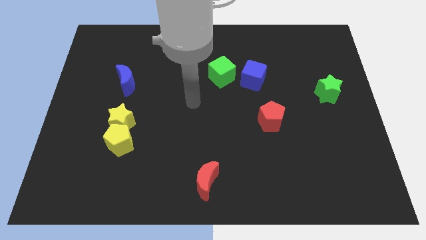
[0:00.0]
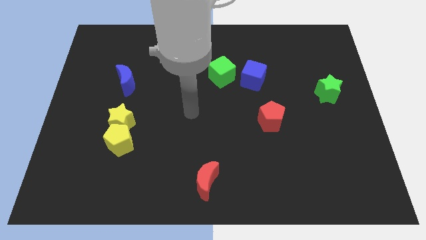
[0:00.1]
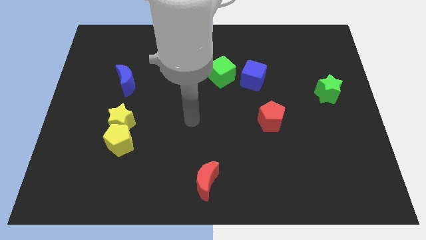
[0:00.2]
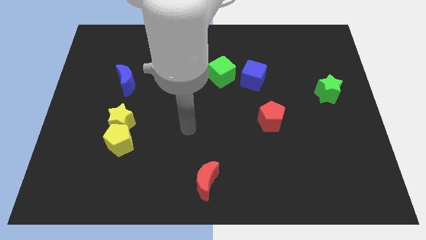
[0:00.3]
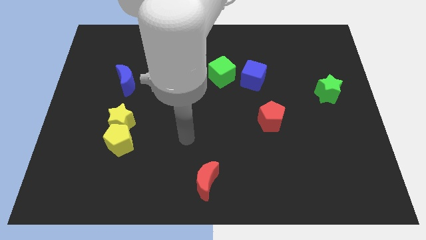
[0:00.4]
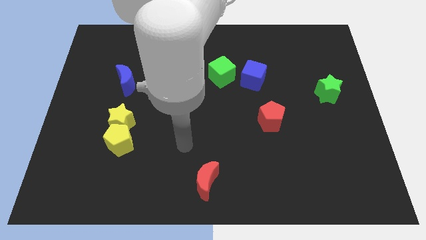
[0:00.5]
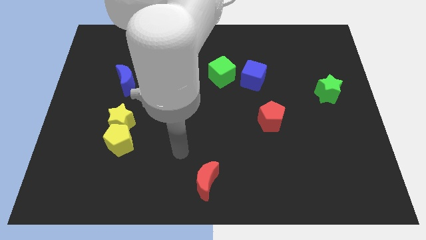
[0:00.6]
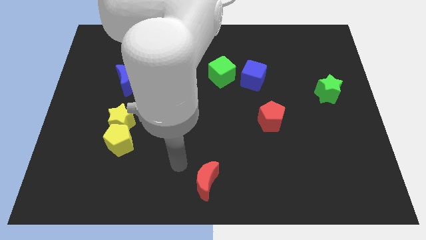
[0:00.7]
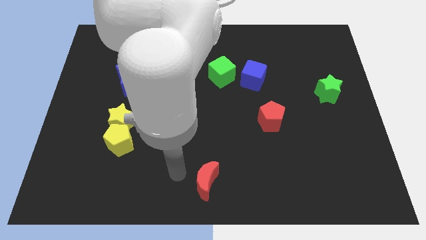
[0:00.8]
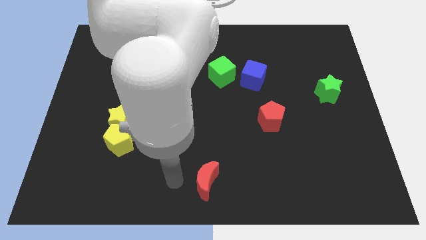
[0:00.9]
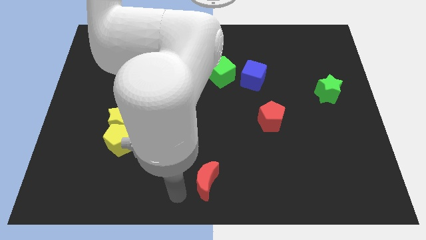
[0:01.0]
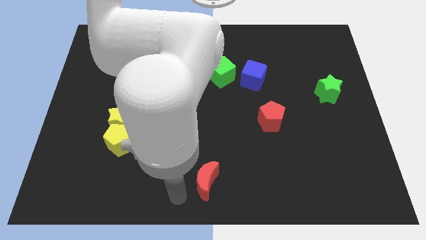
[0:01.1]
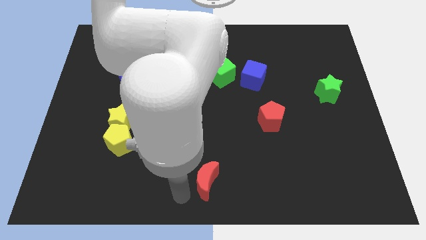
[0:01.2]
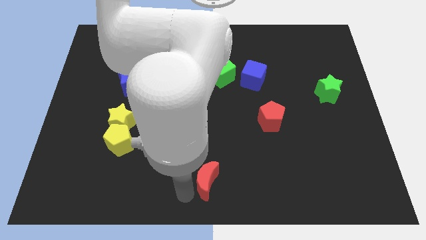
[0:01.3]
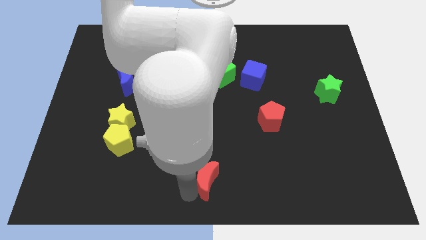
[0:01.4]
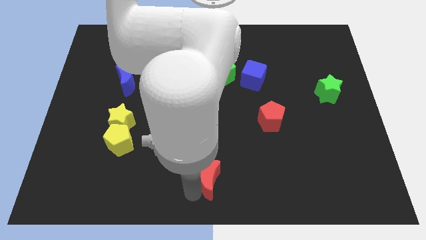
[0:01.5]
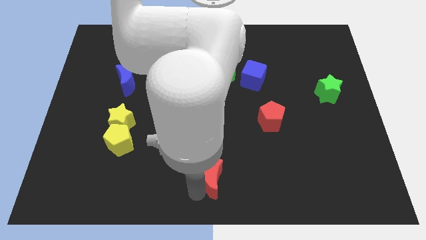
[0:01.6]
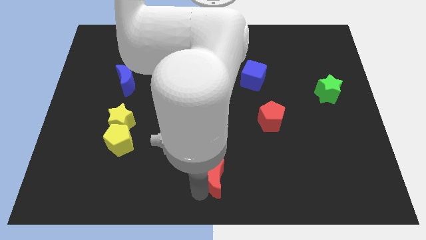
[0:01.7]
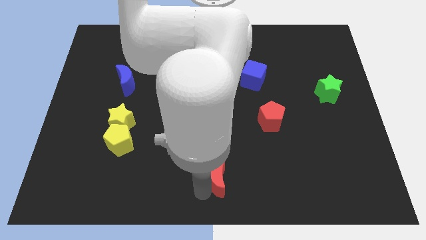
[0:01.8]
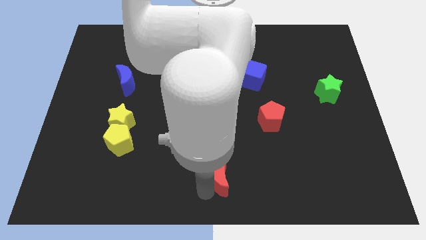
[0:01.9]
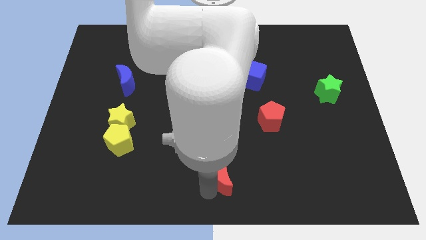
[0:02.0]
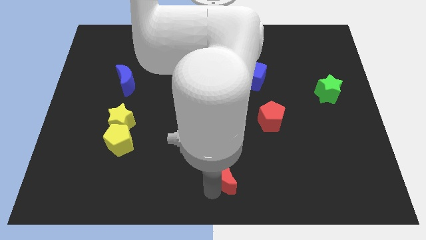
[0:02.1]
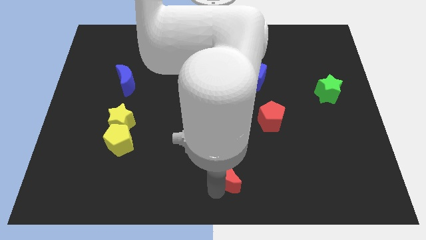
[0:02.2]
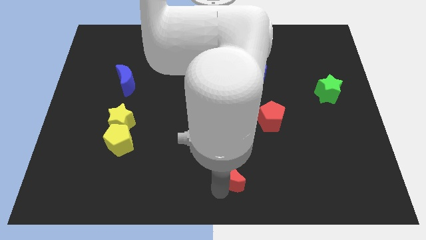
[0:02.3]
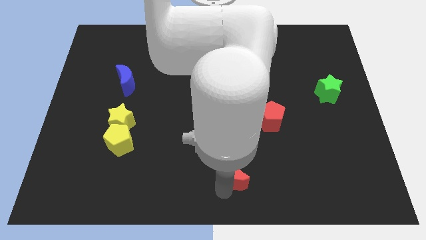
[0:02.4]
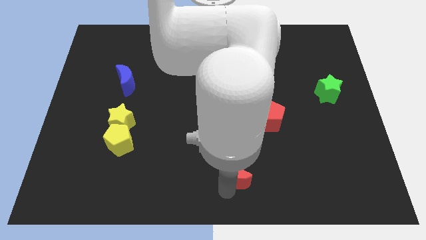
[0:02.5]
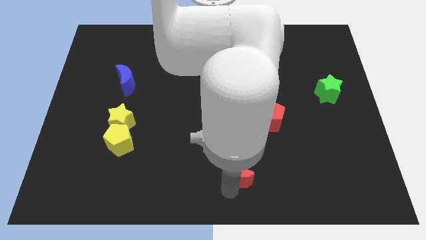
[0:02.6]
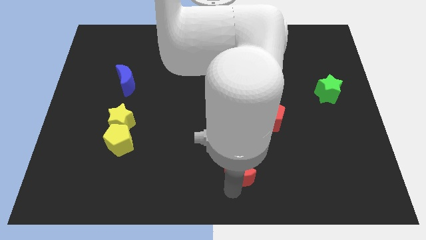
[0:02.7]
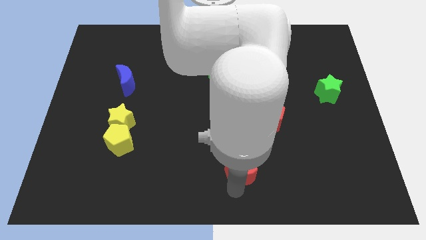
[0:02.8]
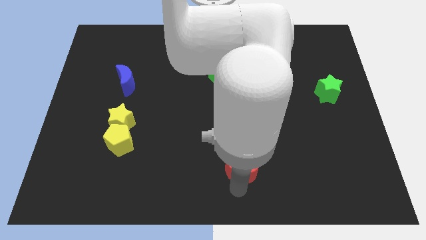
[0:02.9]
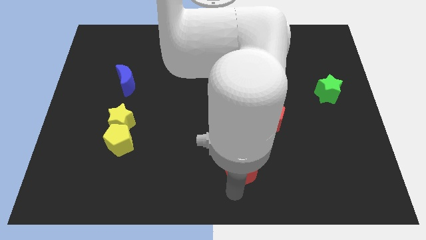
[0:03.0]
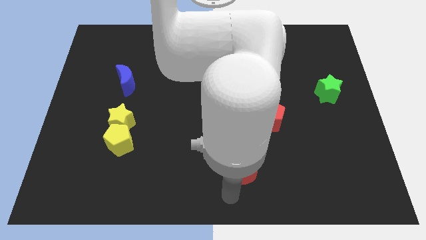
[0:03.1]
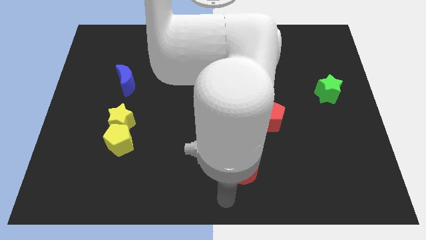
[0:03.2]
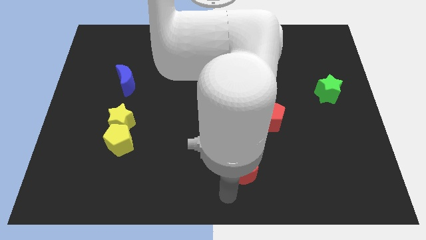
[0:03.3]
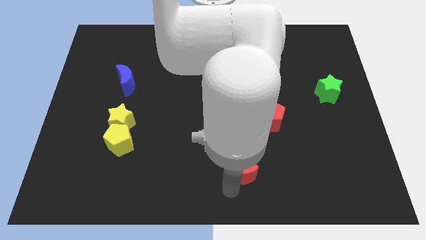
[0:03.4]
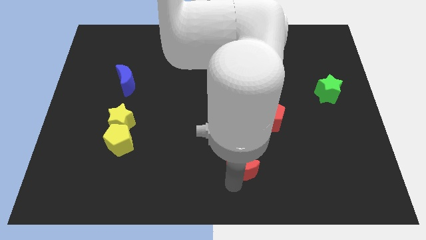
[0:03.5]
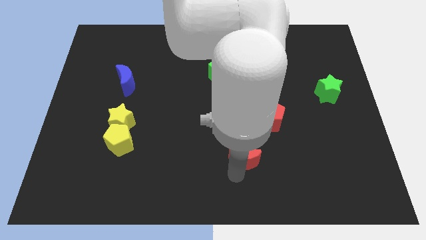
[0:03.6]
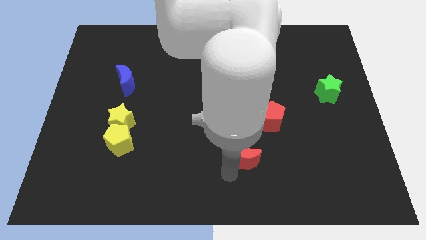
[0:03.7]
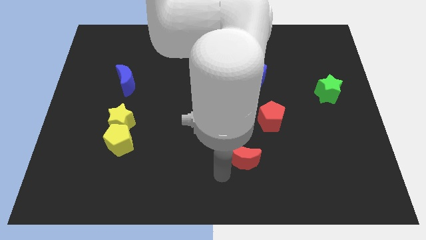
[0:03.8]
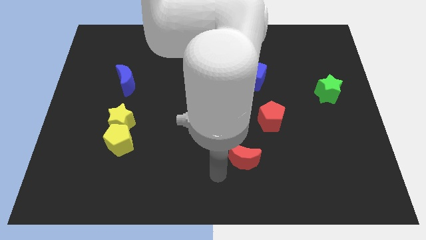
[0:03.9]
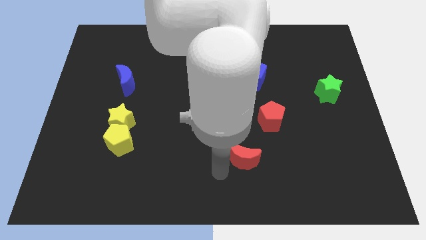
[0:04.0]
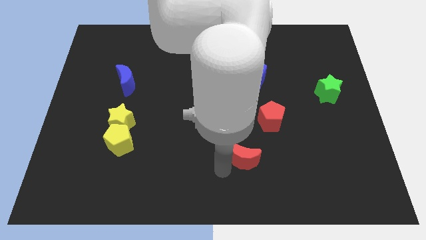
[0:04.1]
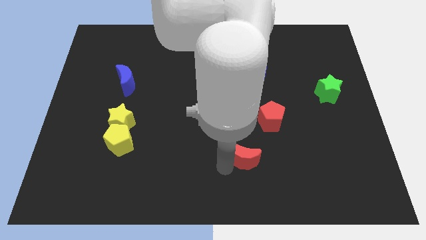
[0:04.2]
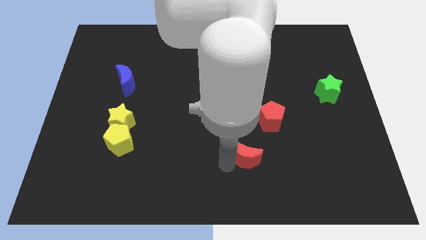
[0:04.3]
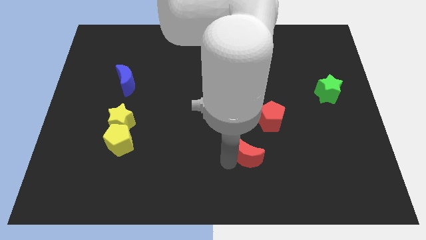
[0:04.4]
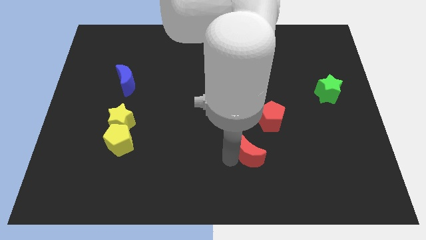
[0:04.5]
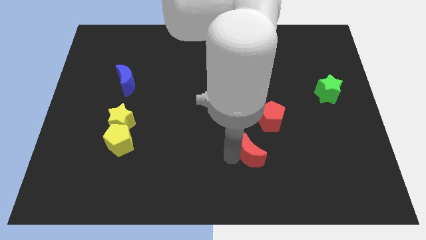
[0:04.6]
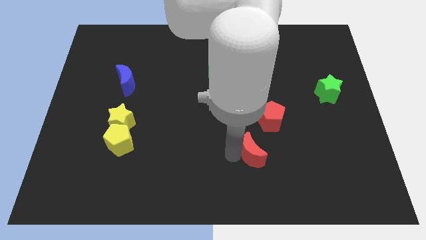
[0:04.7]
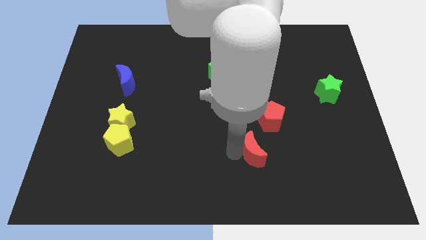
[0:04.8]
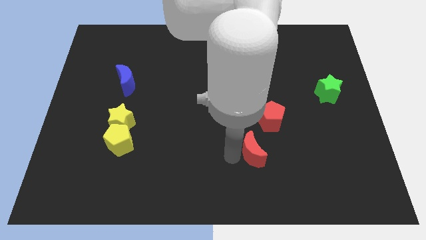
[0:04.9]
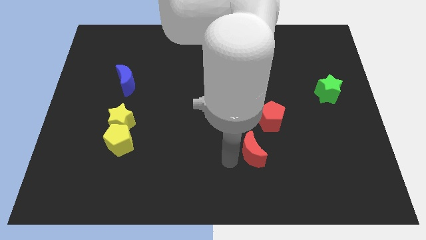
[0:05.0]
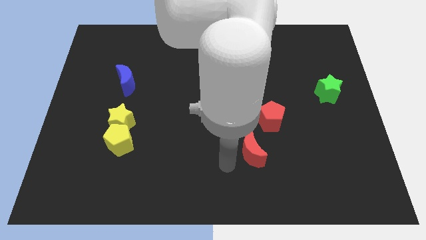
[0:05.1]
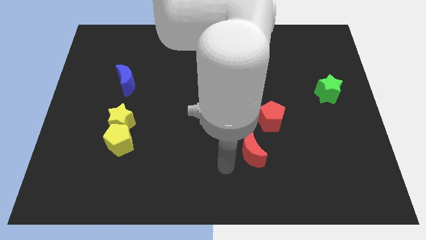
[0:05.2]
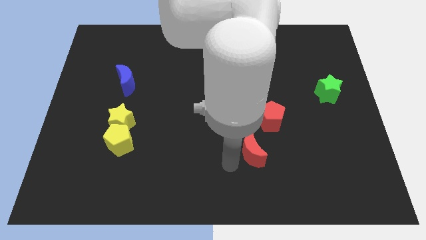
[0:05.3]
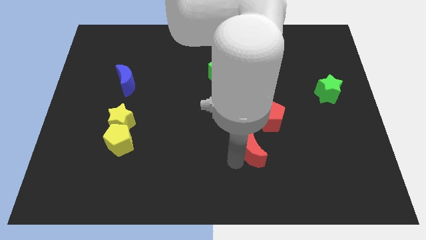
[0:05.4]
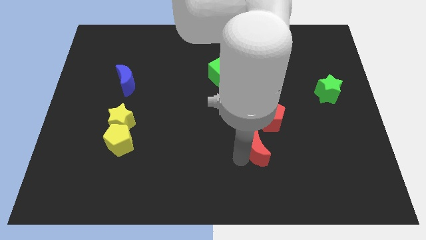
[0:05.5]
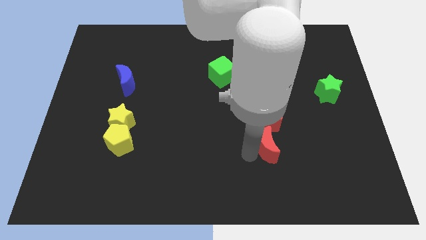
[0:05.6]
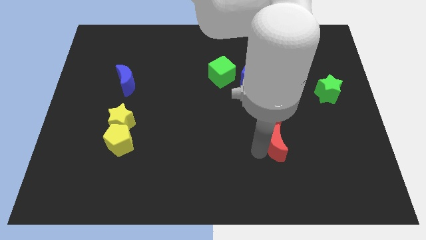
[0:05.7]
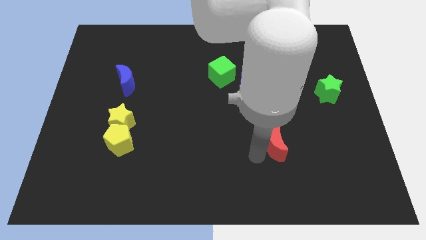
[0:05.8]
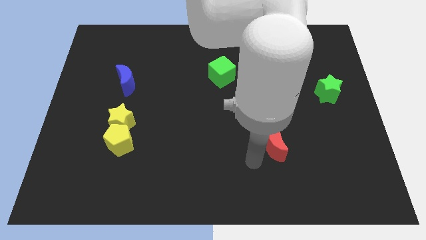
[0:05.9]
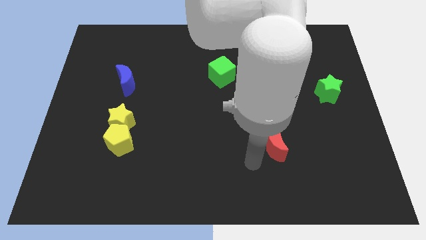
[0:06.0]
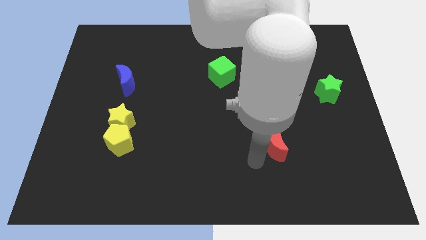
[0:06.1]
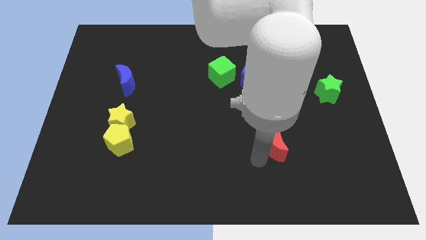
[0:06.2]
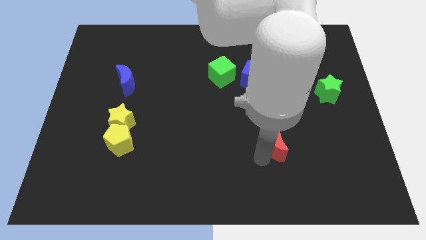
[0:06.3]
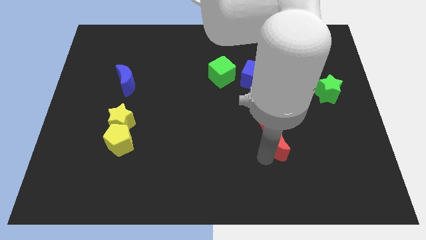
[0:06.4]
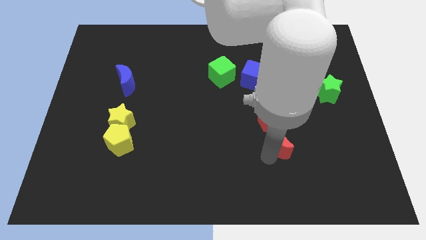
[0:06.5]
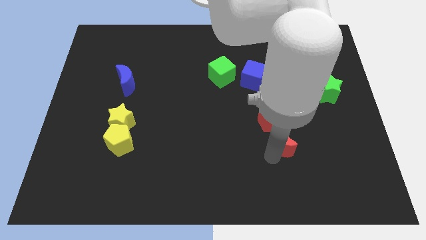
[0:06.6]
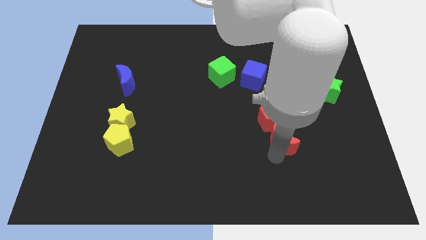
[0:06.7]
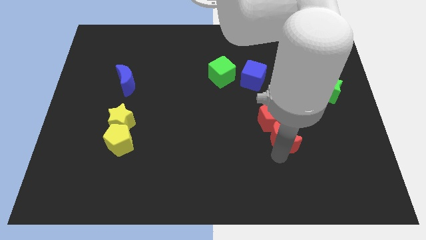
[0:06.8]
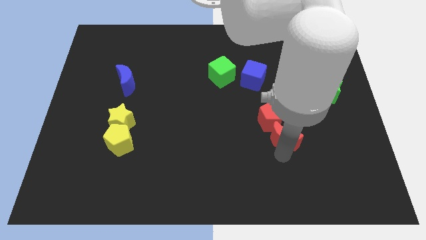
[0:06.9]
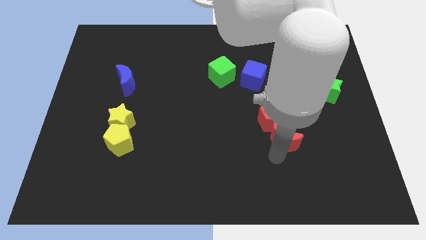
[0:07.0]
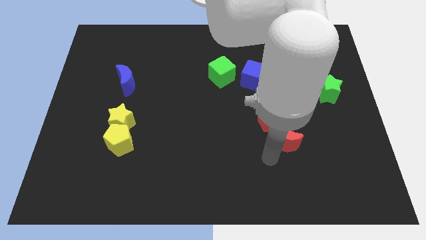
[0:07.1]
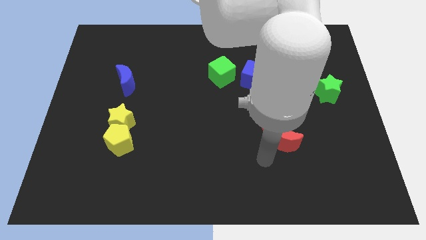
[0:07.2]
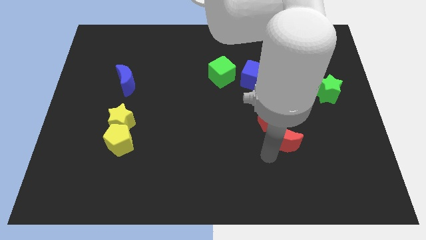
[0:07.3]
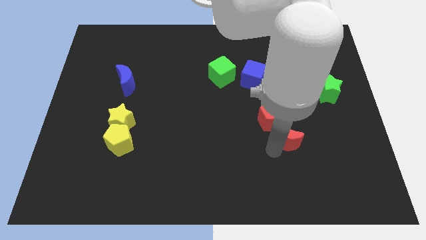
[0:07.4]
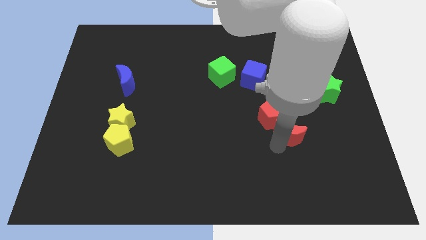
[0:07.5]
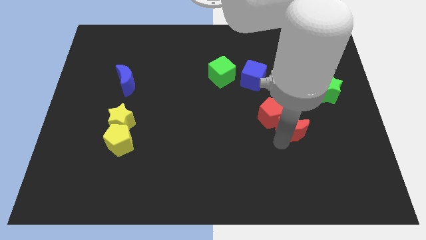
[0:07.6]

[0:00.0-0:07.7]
slide the red moon upwards and then right

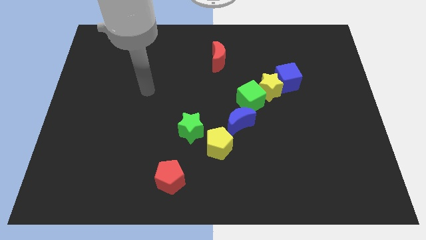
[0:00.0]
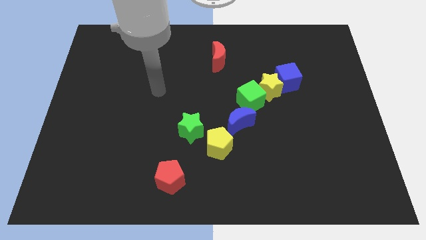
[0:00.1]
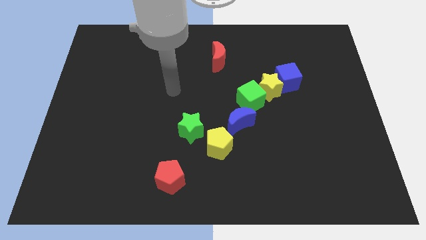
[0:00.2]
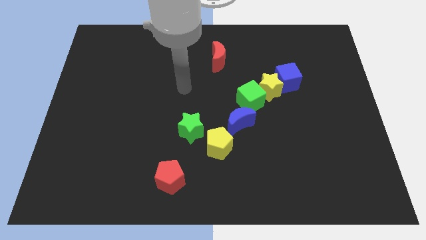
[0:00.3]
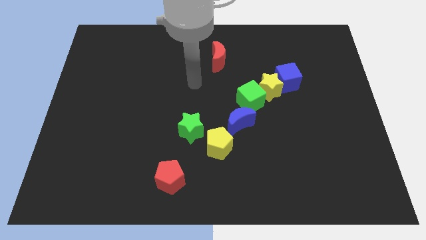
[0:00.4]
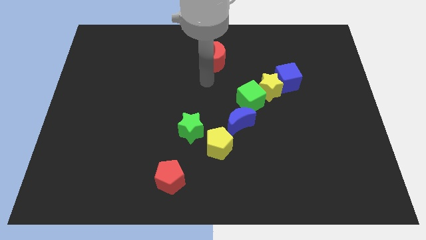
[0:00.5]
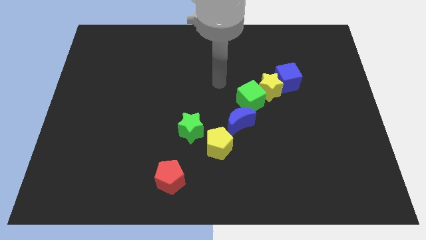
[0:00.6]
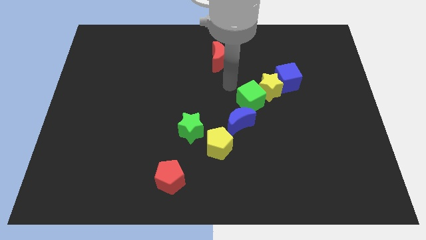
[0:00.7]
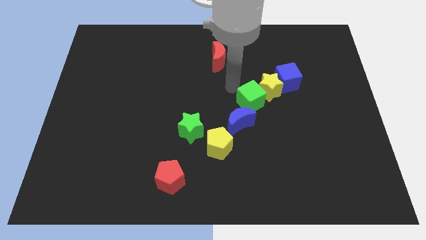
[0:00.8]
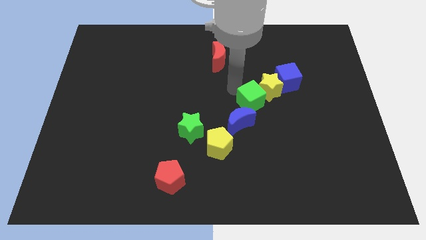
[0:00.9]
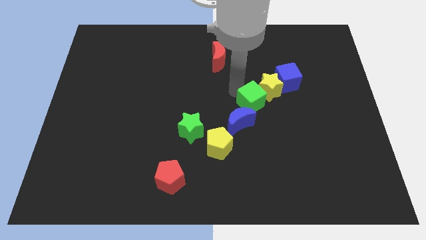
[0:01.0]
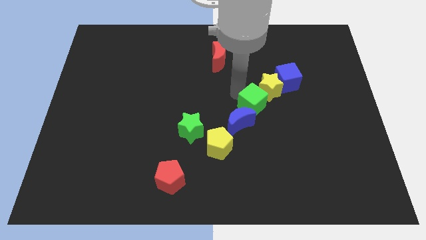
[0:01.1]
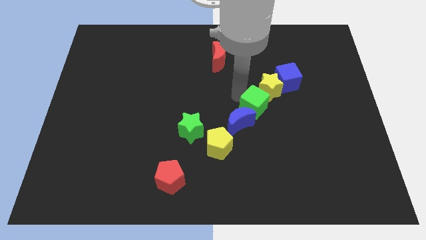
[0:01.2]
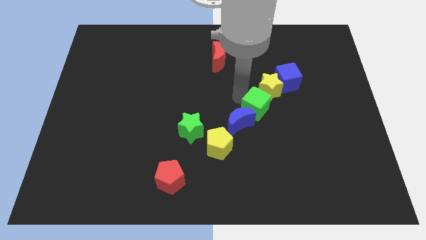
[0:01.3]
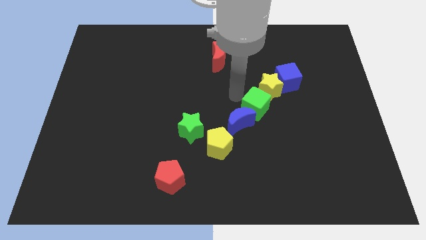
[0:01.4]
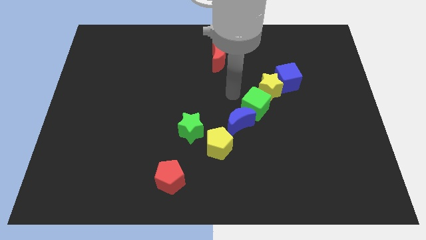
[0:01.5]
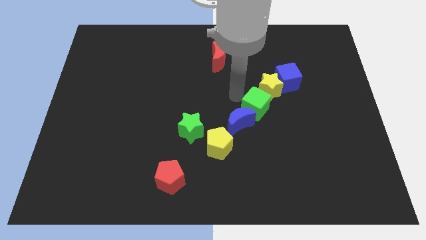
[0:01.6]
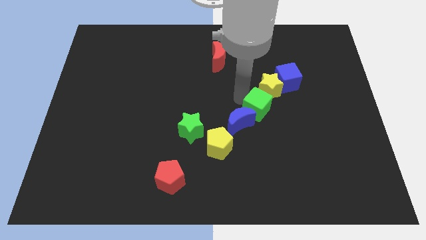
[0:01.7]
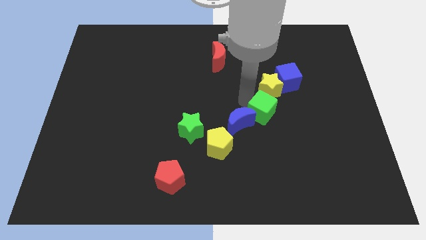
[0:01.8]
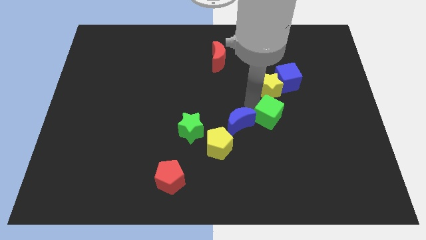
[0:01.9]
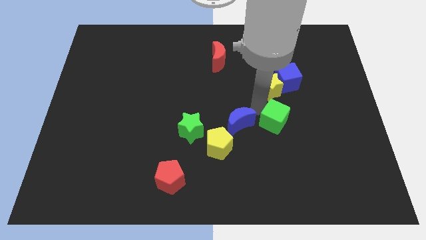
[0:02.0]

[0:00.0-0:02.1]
push the green cube down and to the right diagonally somewhat
